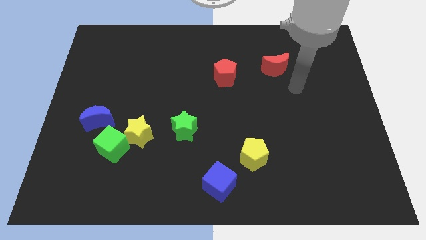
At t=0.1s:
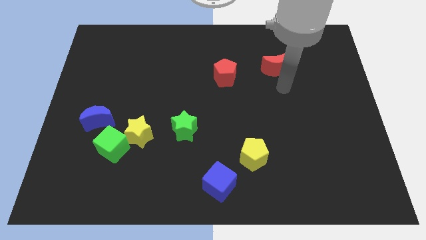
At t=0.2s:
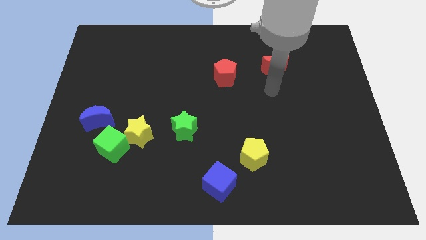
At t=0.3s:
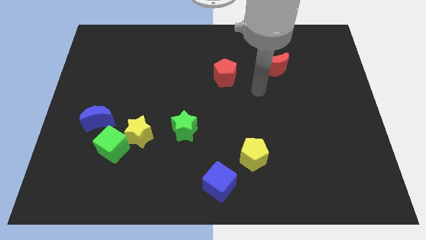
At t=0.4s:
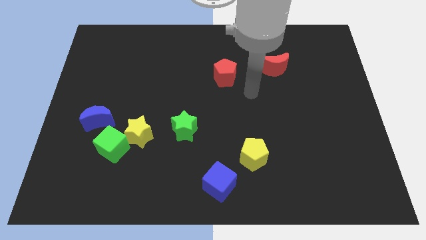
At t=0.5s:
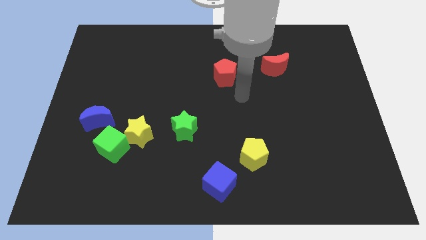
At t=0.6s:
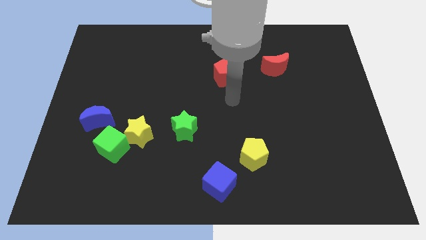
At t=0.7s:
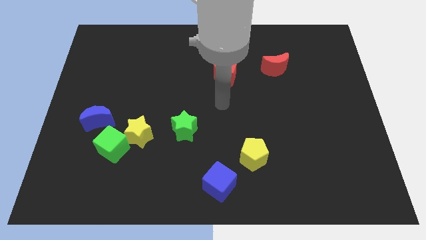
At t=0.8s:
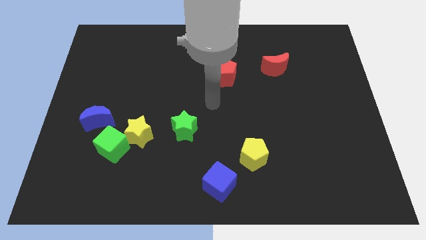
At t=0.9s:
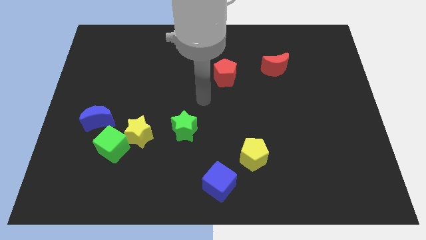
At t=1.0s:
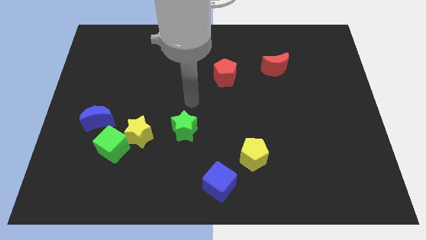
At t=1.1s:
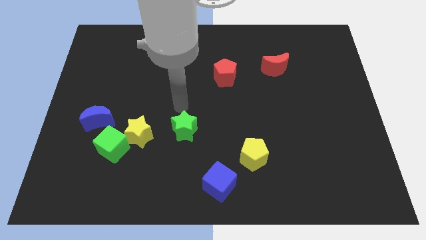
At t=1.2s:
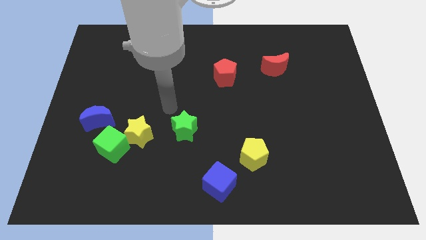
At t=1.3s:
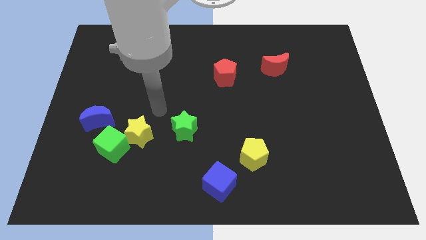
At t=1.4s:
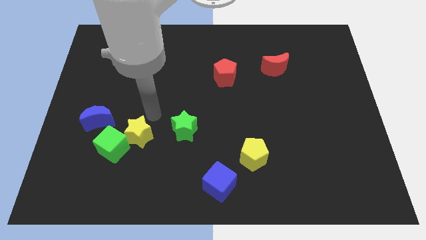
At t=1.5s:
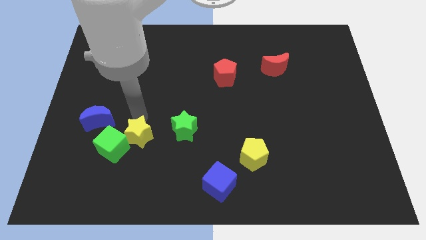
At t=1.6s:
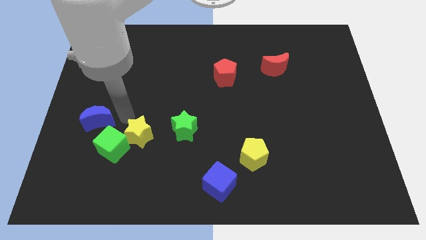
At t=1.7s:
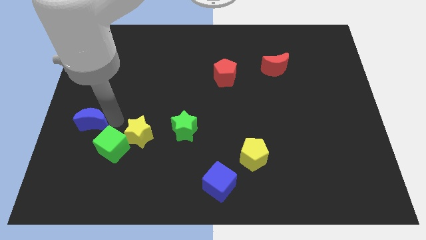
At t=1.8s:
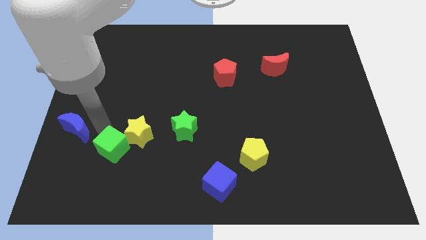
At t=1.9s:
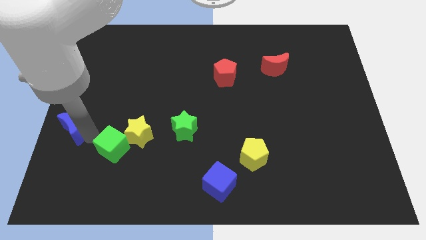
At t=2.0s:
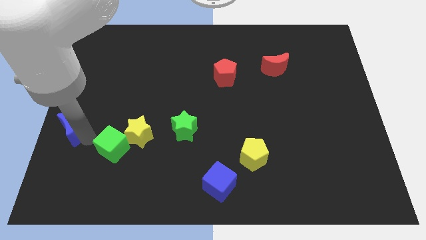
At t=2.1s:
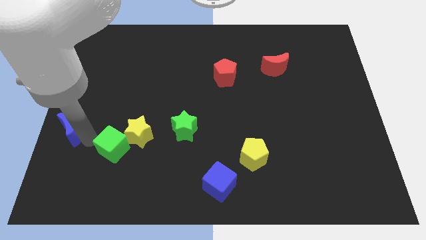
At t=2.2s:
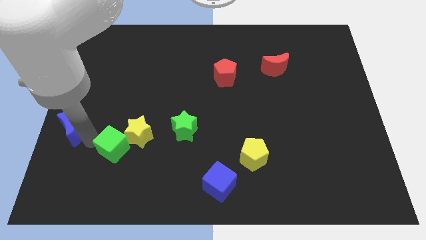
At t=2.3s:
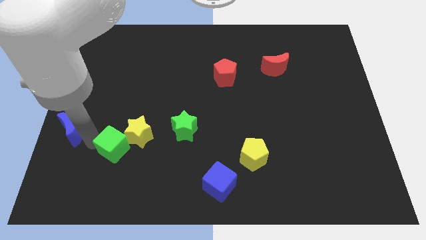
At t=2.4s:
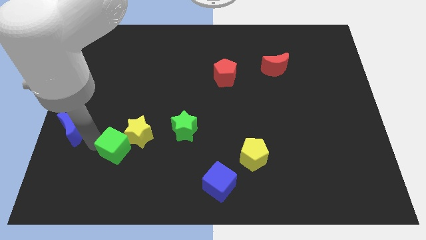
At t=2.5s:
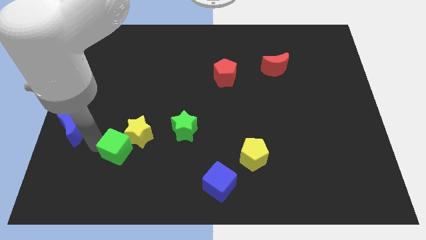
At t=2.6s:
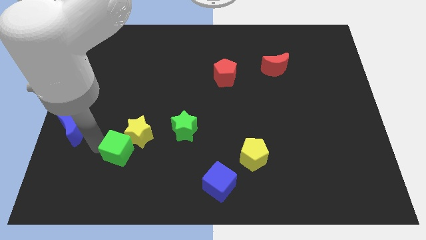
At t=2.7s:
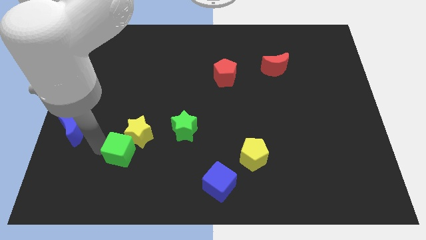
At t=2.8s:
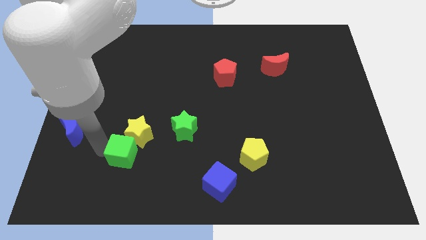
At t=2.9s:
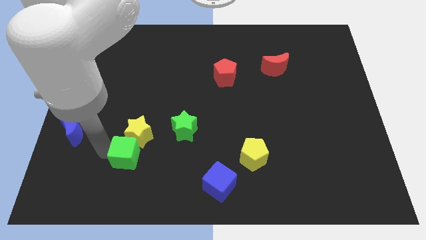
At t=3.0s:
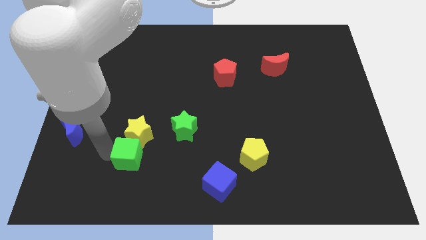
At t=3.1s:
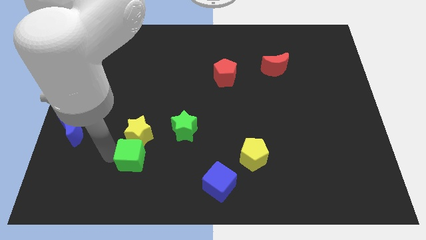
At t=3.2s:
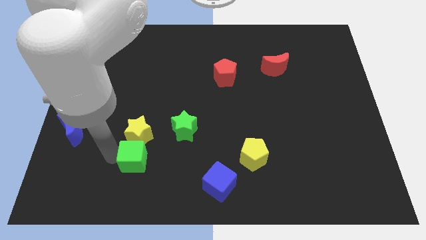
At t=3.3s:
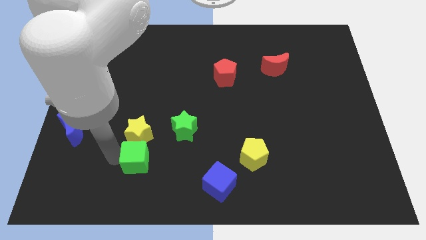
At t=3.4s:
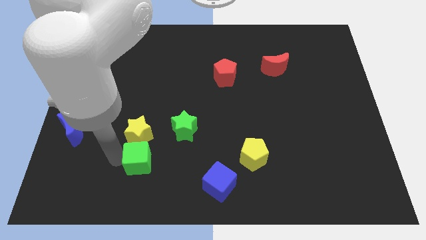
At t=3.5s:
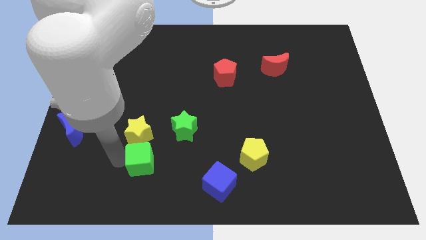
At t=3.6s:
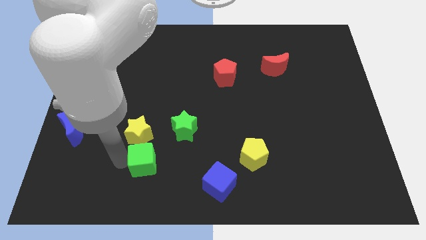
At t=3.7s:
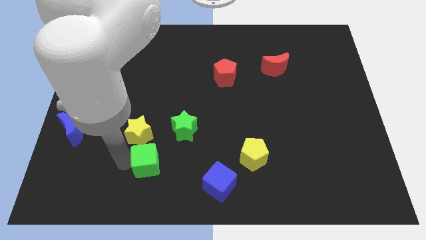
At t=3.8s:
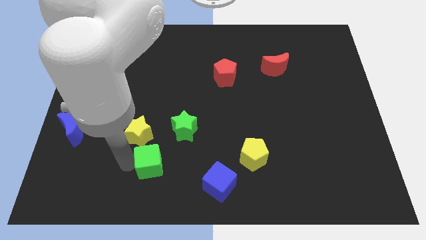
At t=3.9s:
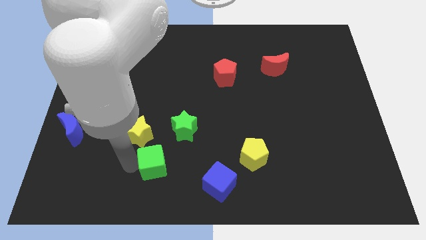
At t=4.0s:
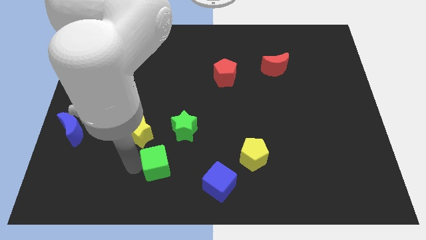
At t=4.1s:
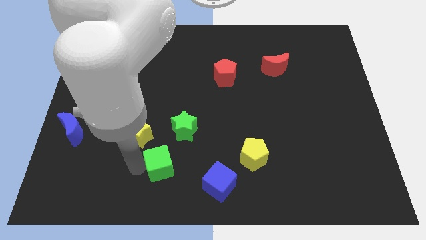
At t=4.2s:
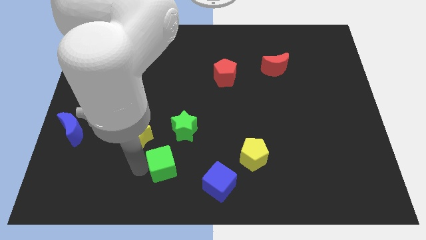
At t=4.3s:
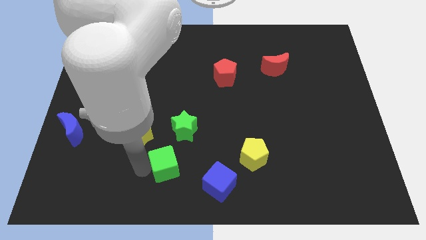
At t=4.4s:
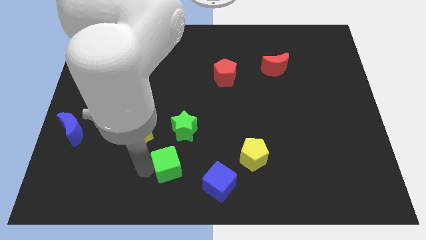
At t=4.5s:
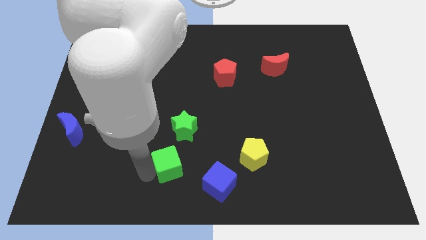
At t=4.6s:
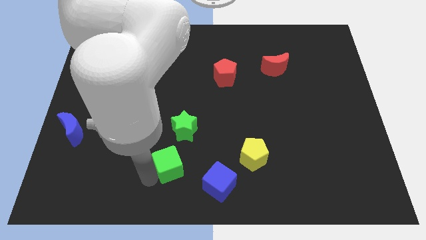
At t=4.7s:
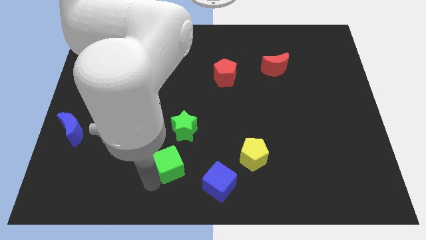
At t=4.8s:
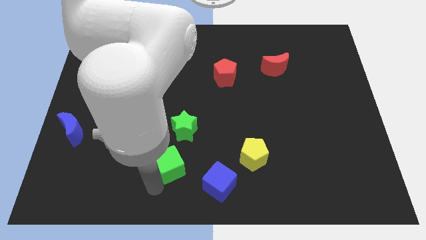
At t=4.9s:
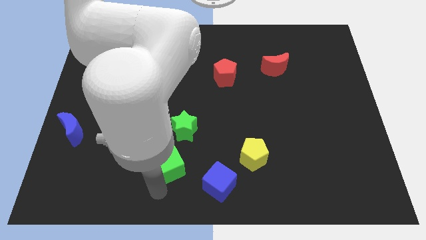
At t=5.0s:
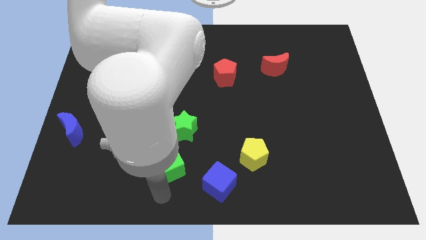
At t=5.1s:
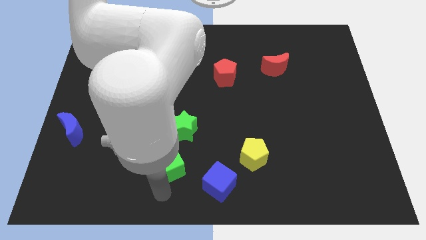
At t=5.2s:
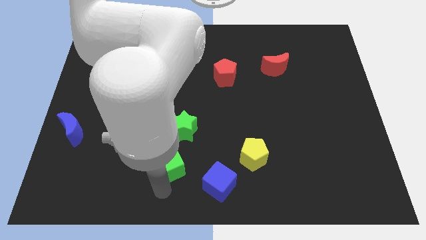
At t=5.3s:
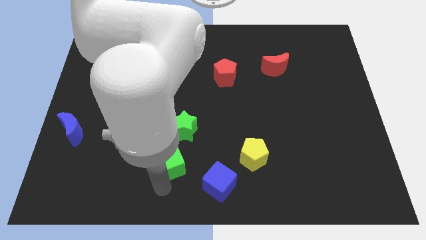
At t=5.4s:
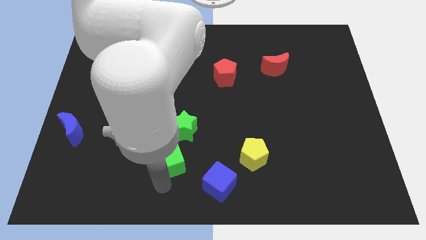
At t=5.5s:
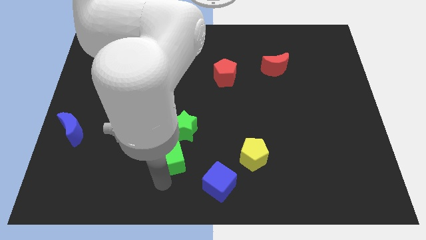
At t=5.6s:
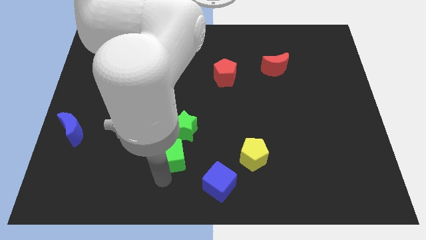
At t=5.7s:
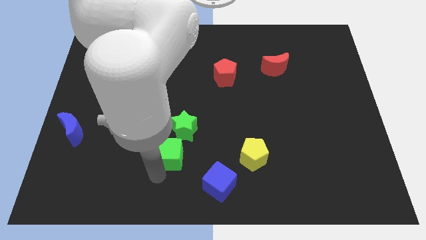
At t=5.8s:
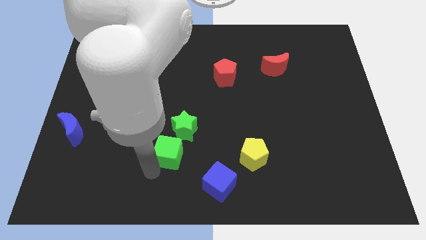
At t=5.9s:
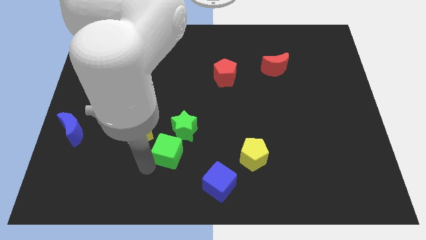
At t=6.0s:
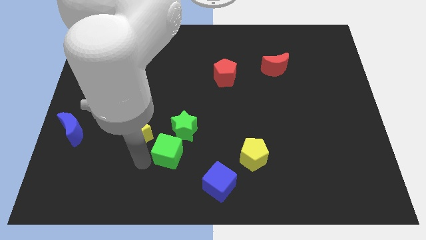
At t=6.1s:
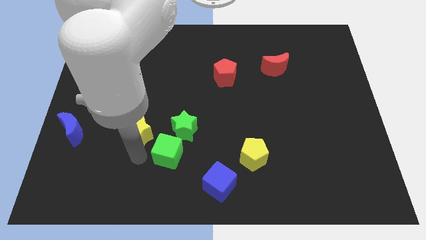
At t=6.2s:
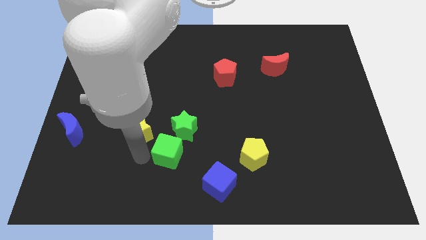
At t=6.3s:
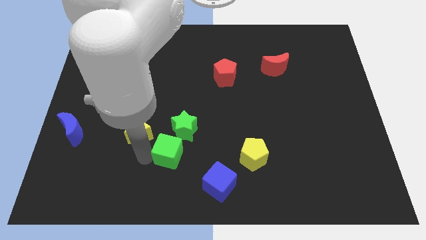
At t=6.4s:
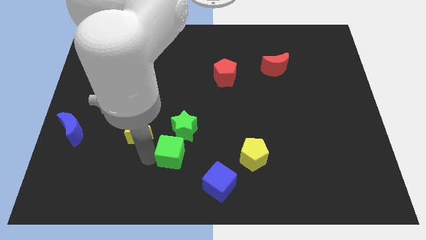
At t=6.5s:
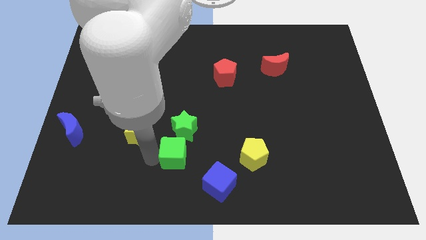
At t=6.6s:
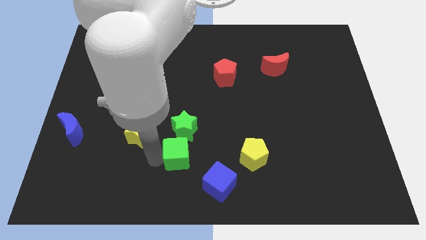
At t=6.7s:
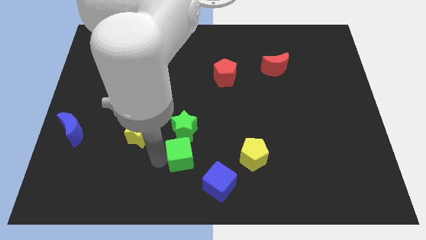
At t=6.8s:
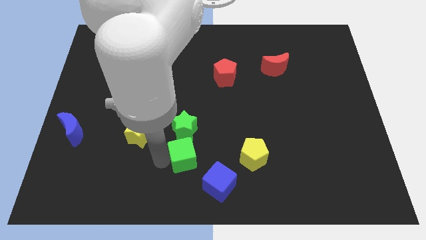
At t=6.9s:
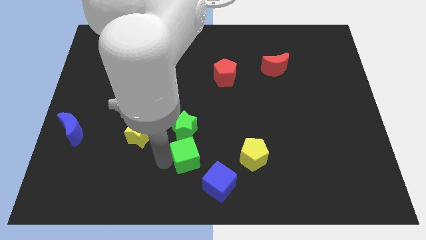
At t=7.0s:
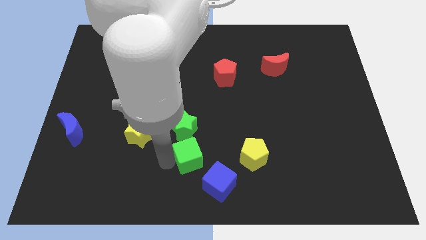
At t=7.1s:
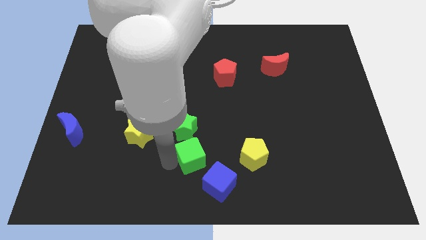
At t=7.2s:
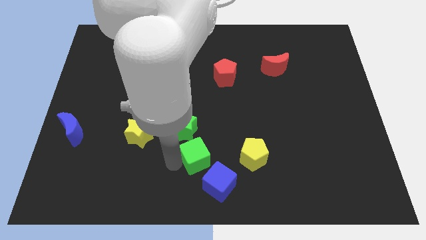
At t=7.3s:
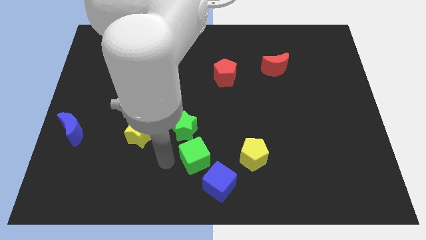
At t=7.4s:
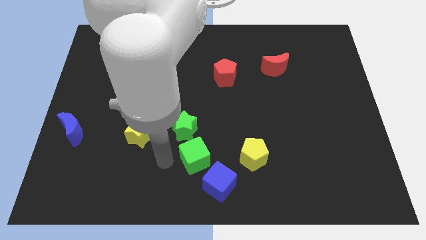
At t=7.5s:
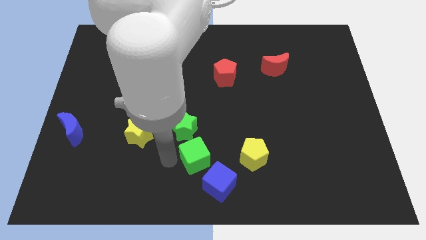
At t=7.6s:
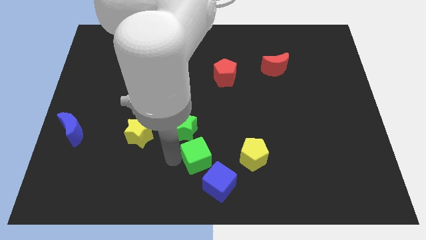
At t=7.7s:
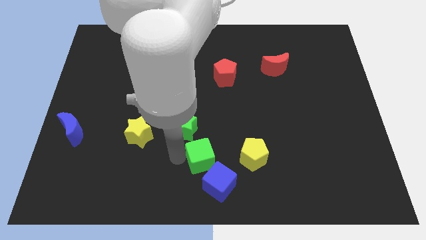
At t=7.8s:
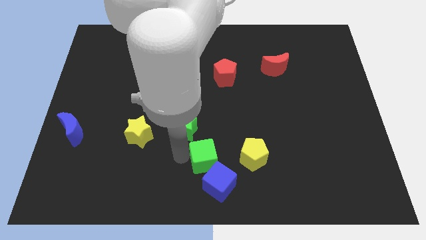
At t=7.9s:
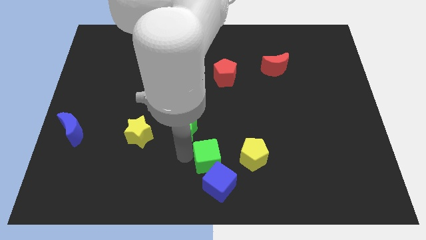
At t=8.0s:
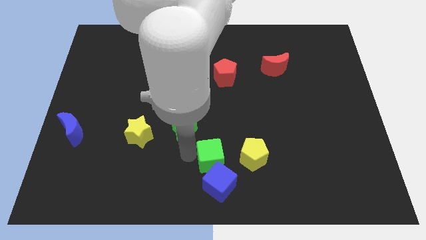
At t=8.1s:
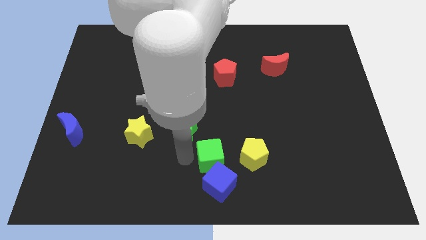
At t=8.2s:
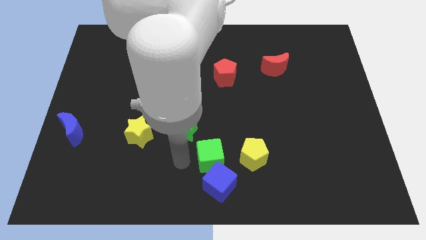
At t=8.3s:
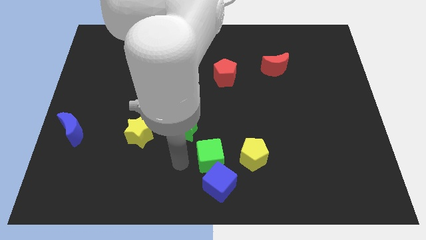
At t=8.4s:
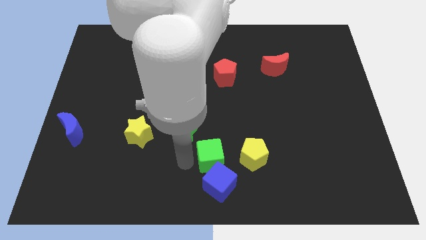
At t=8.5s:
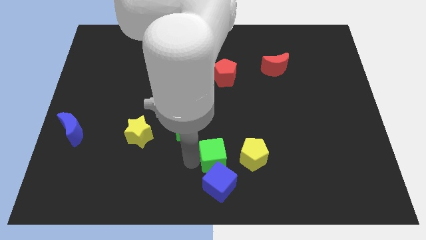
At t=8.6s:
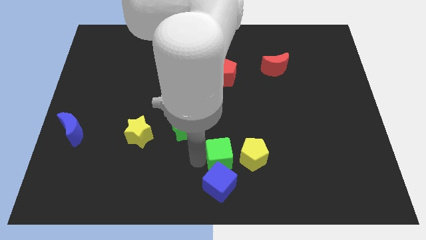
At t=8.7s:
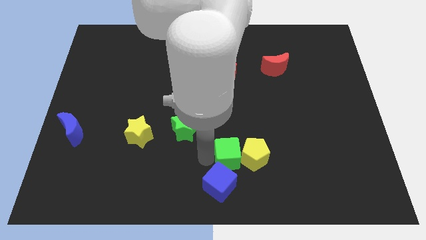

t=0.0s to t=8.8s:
push the green cube close to the yellow pentagon
